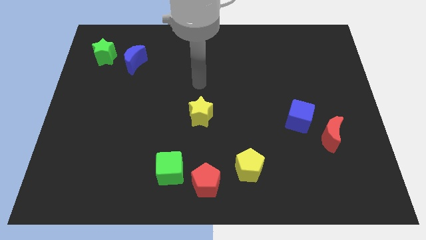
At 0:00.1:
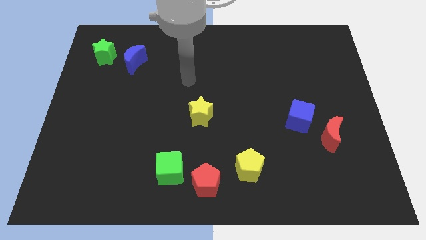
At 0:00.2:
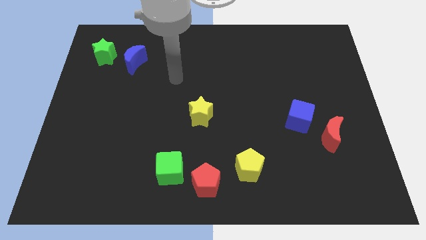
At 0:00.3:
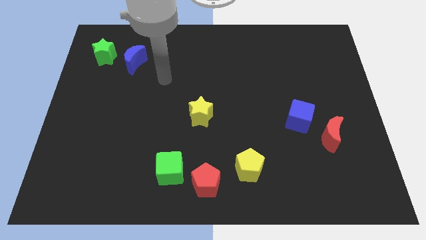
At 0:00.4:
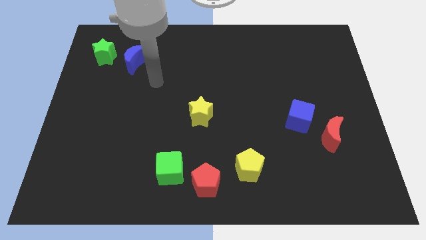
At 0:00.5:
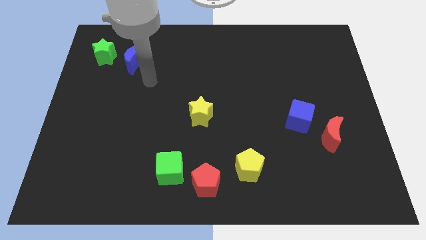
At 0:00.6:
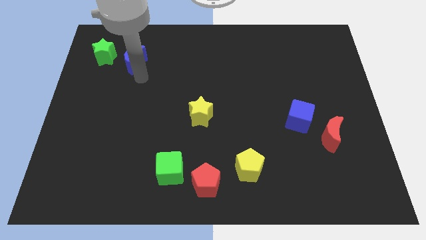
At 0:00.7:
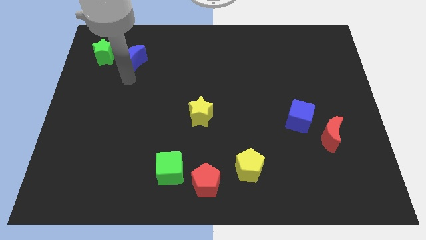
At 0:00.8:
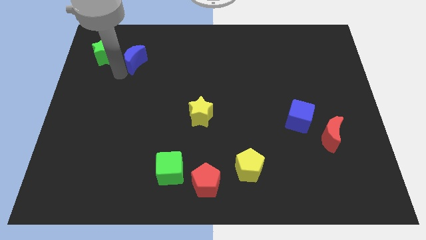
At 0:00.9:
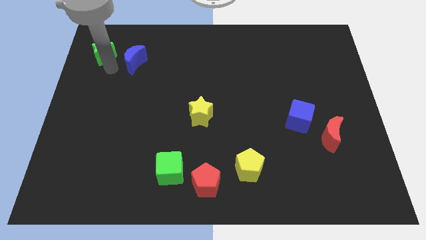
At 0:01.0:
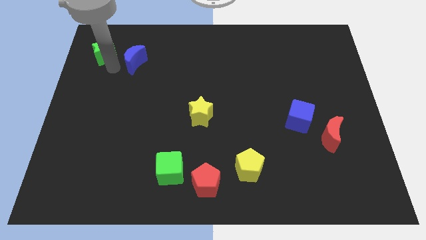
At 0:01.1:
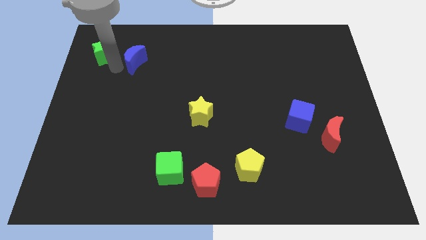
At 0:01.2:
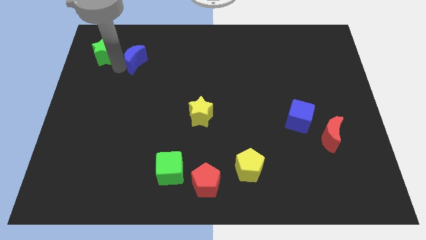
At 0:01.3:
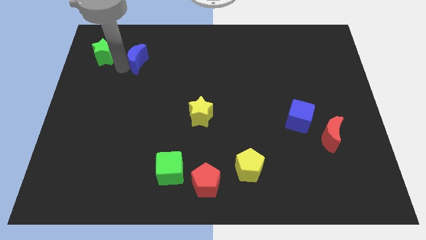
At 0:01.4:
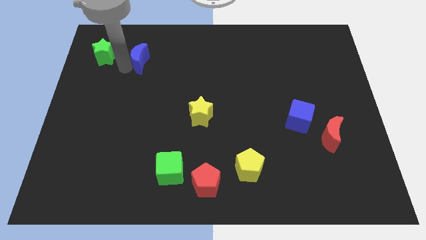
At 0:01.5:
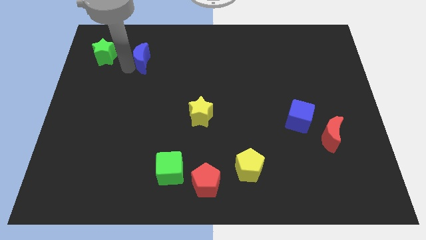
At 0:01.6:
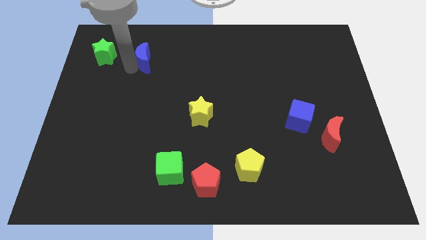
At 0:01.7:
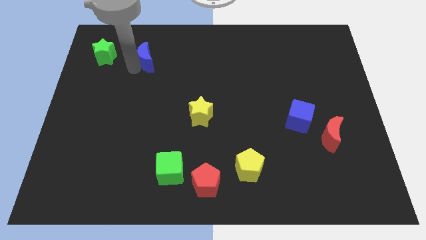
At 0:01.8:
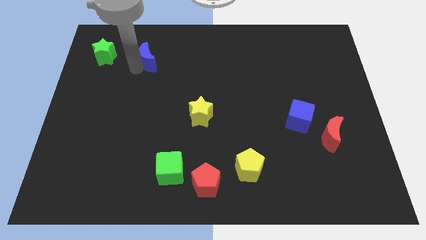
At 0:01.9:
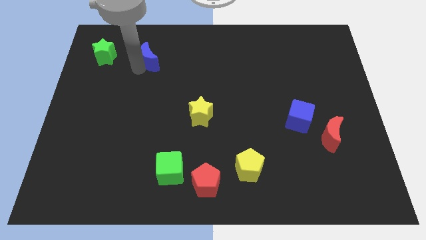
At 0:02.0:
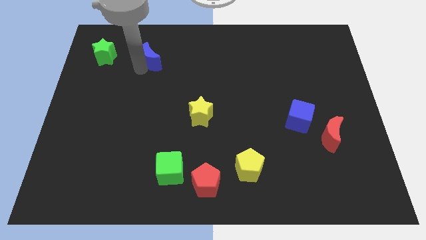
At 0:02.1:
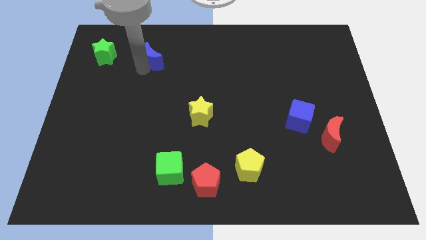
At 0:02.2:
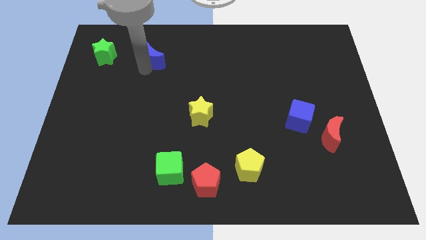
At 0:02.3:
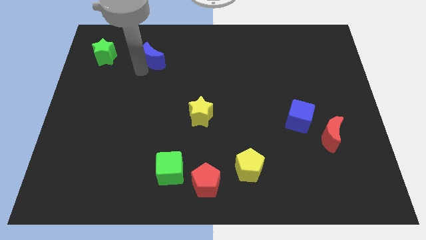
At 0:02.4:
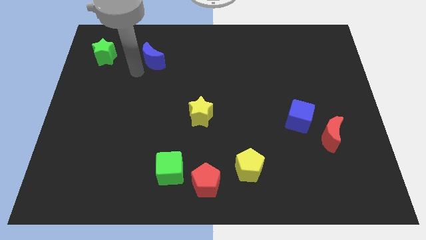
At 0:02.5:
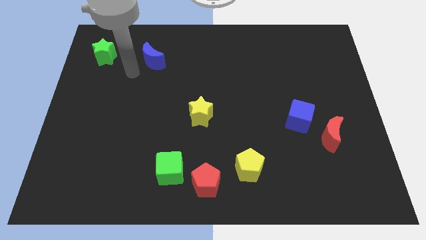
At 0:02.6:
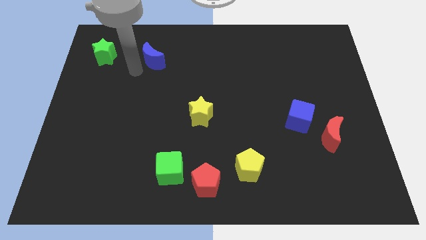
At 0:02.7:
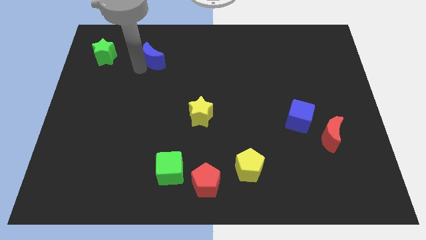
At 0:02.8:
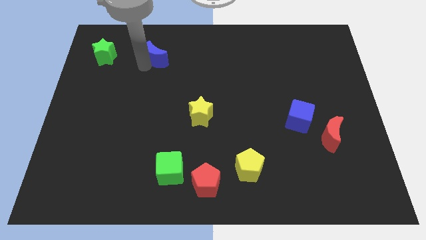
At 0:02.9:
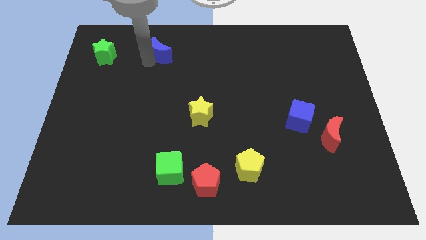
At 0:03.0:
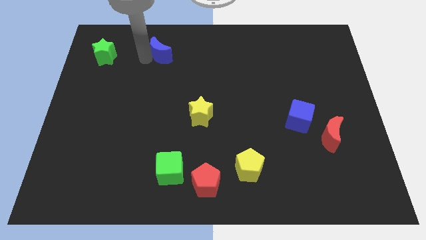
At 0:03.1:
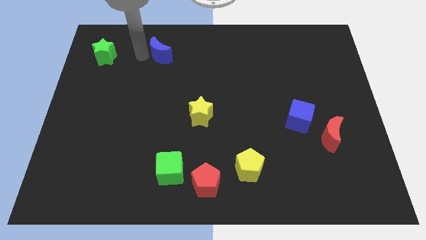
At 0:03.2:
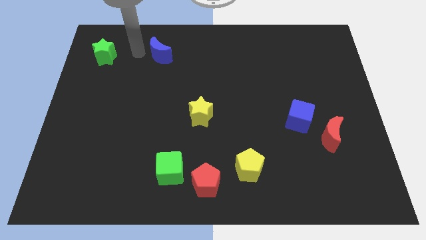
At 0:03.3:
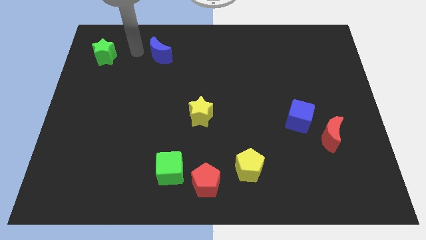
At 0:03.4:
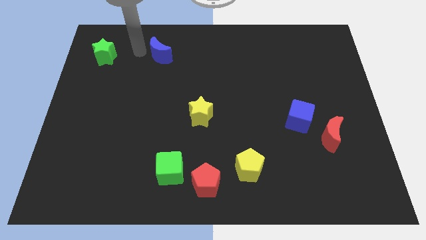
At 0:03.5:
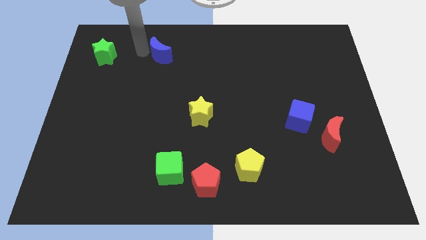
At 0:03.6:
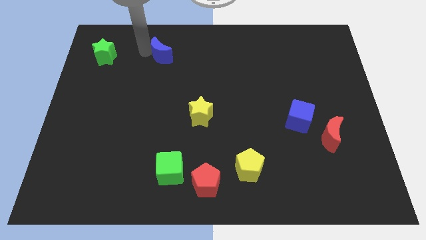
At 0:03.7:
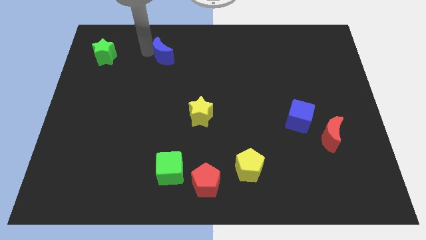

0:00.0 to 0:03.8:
slightly move the blue moon right

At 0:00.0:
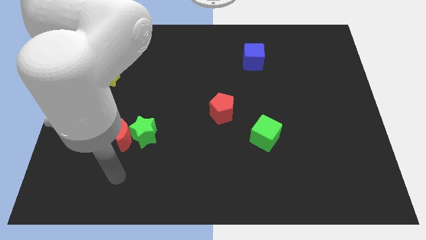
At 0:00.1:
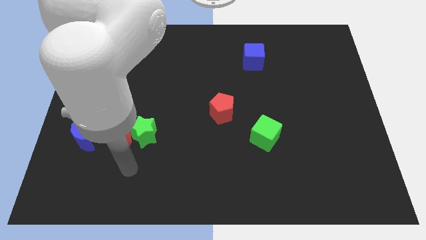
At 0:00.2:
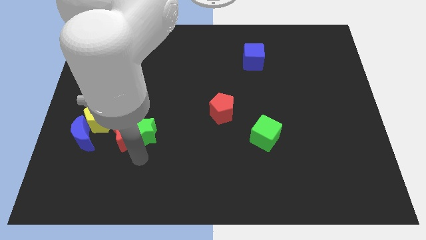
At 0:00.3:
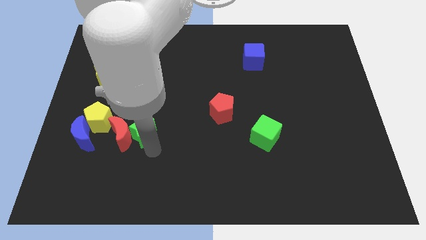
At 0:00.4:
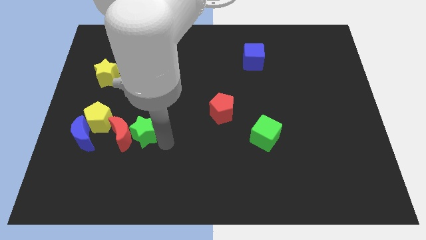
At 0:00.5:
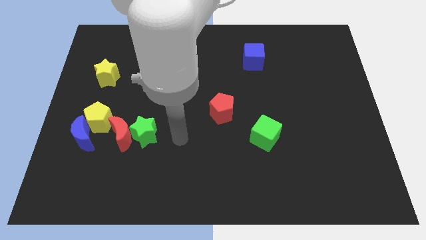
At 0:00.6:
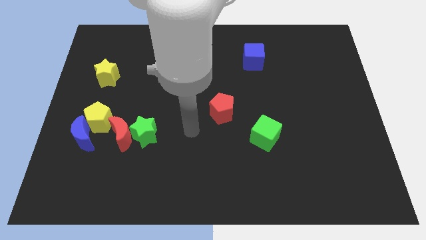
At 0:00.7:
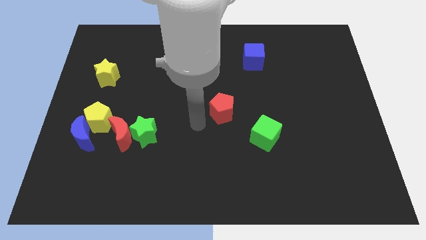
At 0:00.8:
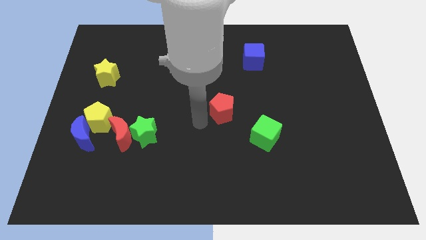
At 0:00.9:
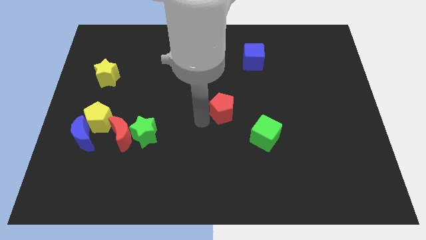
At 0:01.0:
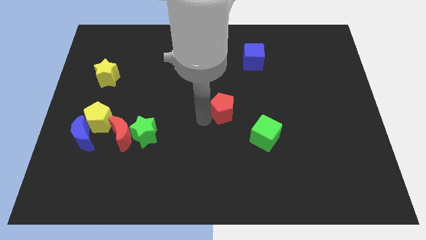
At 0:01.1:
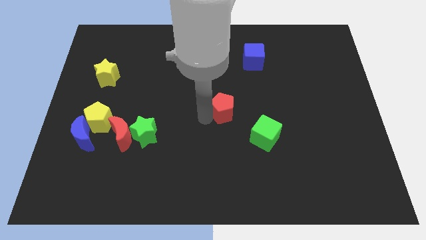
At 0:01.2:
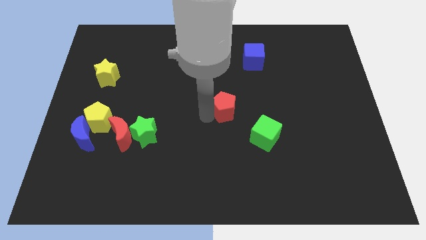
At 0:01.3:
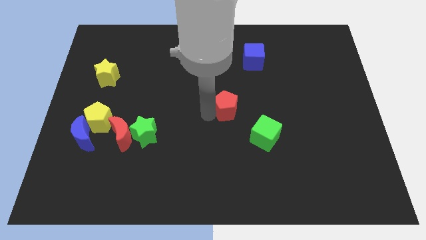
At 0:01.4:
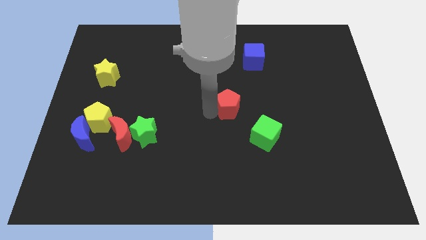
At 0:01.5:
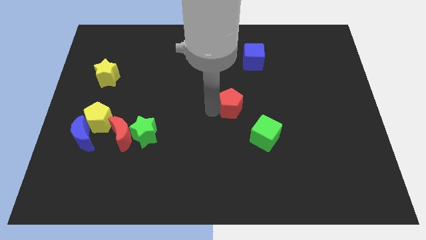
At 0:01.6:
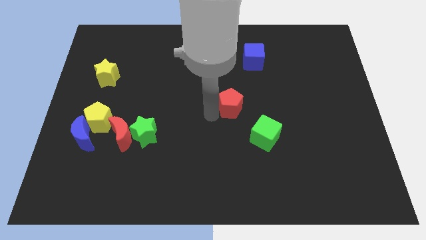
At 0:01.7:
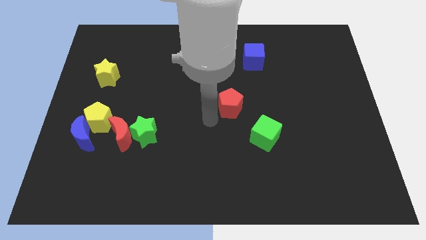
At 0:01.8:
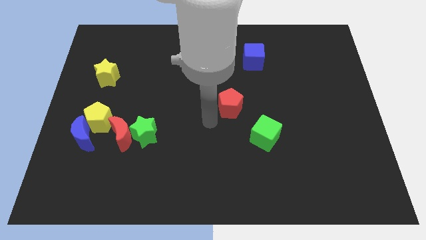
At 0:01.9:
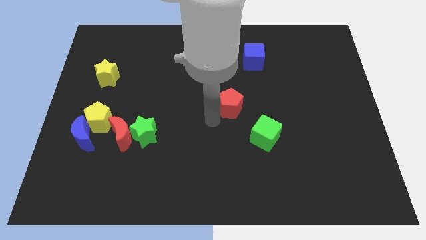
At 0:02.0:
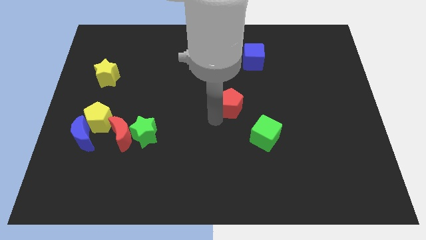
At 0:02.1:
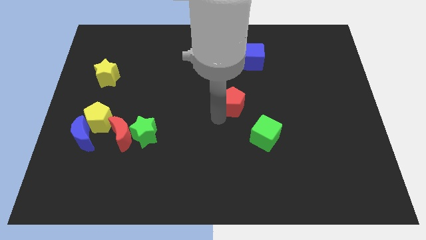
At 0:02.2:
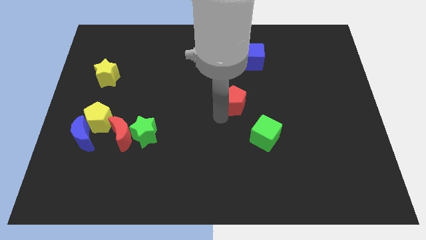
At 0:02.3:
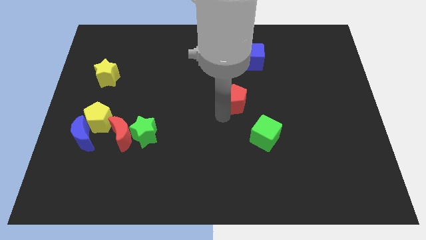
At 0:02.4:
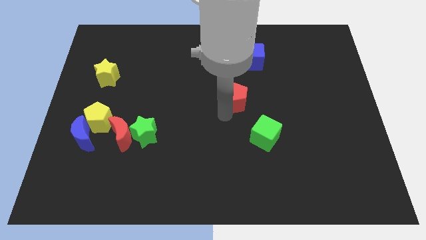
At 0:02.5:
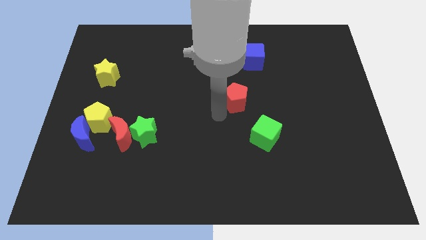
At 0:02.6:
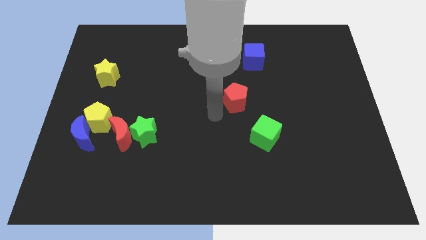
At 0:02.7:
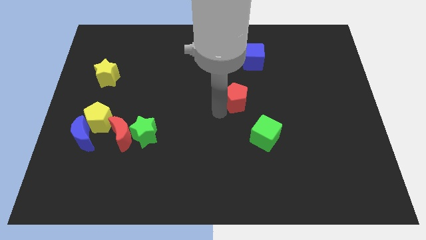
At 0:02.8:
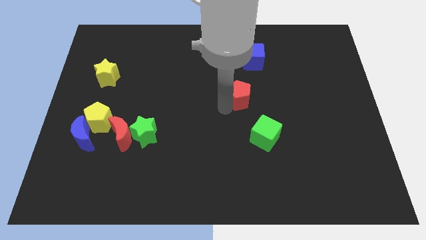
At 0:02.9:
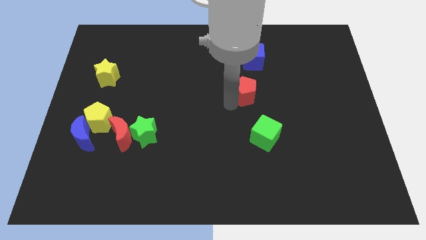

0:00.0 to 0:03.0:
push the red pentagon a little upwards and right

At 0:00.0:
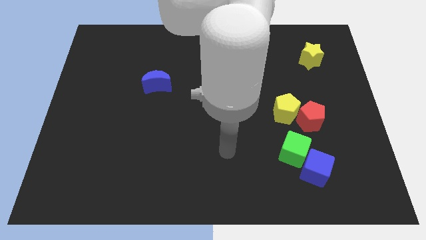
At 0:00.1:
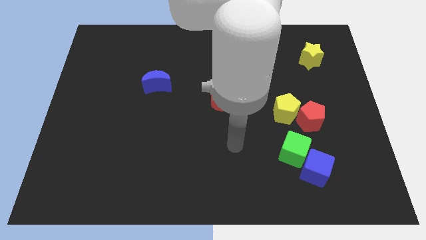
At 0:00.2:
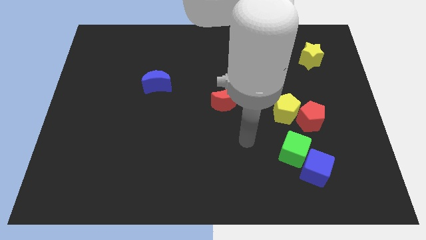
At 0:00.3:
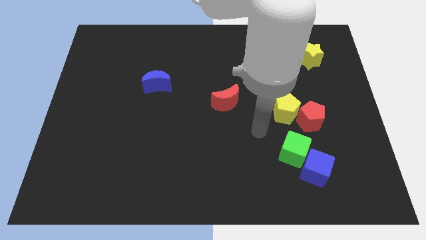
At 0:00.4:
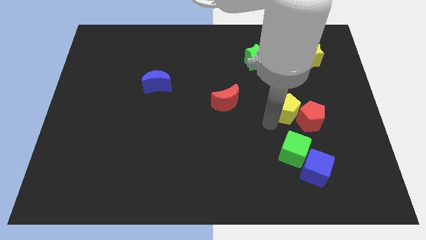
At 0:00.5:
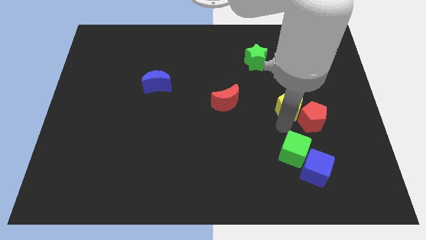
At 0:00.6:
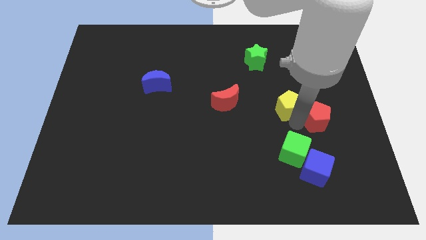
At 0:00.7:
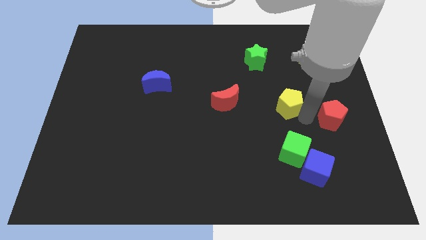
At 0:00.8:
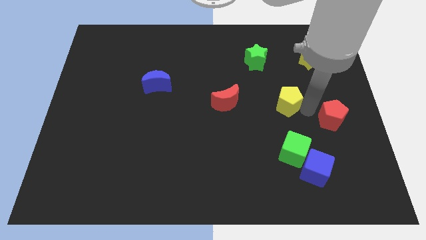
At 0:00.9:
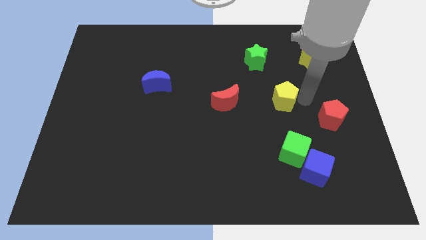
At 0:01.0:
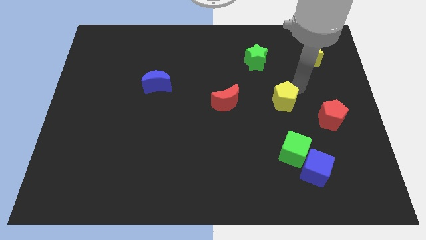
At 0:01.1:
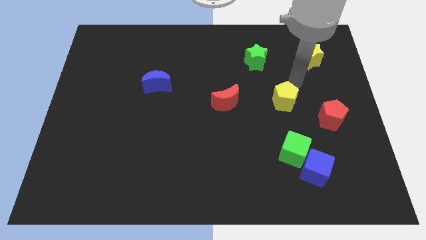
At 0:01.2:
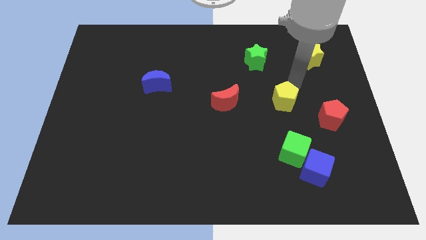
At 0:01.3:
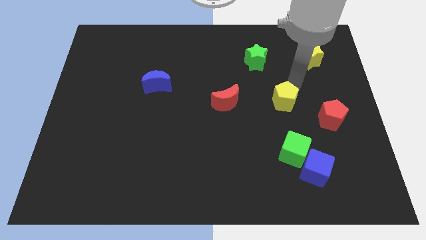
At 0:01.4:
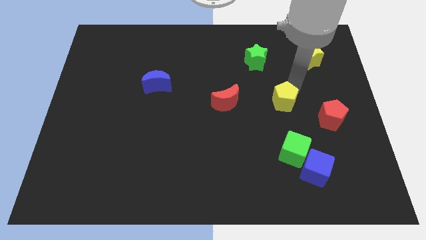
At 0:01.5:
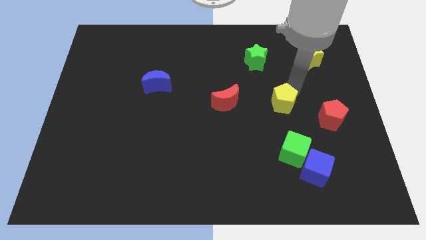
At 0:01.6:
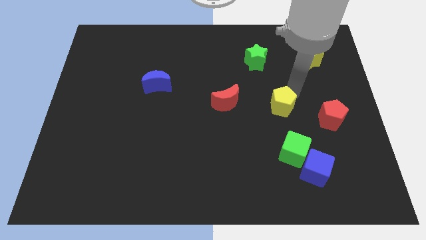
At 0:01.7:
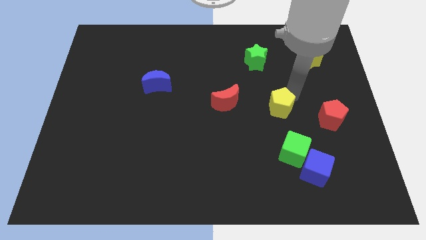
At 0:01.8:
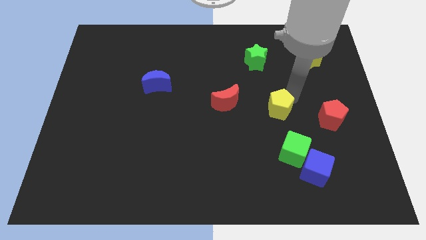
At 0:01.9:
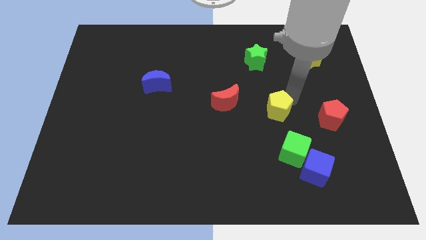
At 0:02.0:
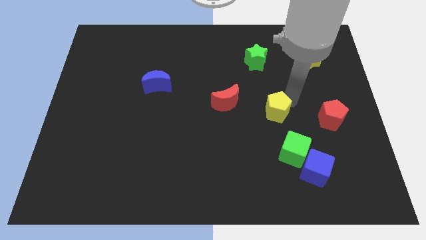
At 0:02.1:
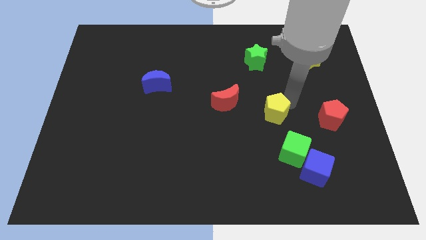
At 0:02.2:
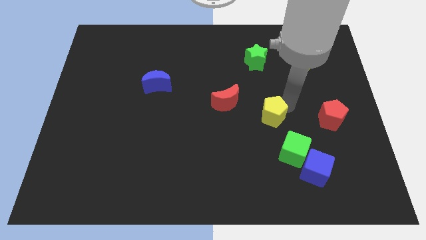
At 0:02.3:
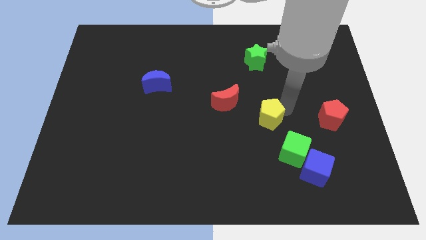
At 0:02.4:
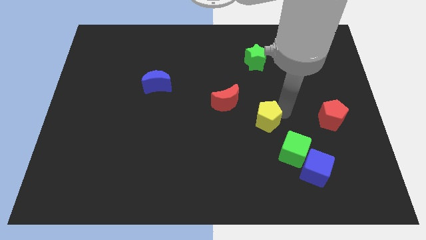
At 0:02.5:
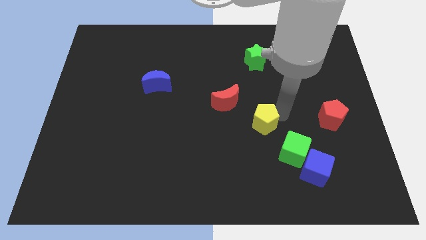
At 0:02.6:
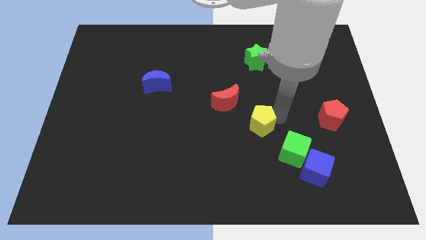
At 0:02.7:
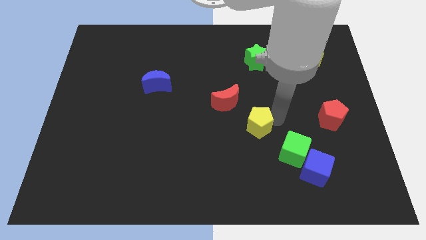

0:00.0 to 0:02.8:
move the yellow pentagon somewhat downwards and left
